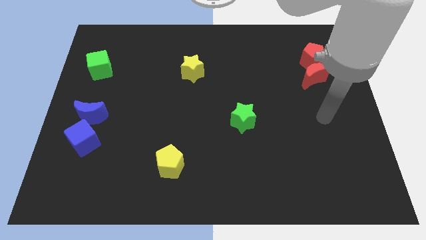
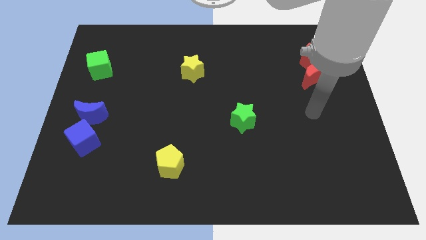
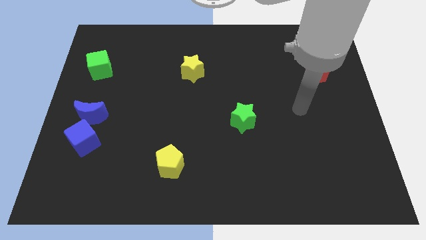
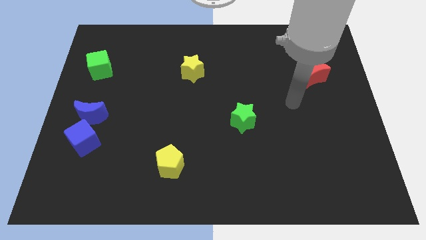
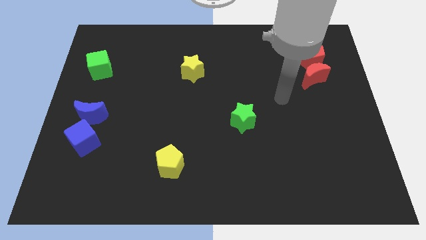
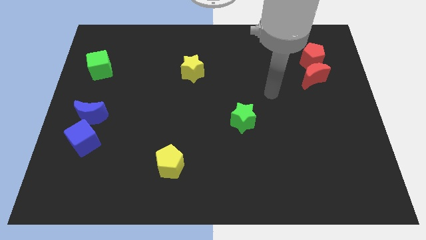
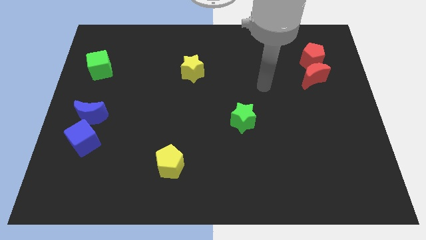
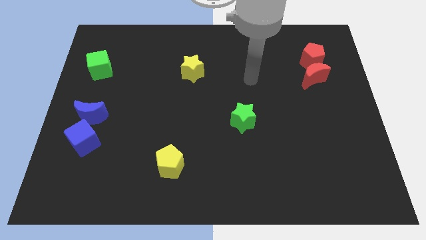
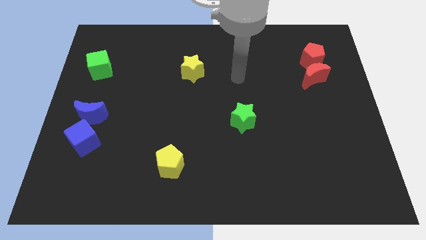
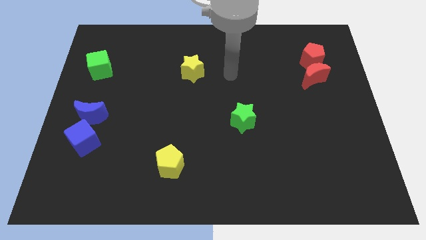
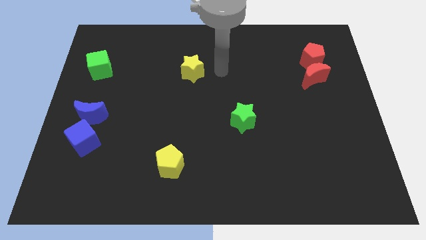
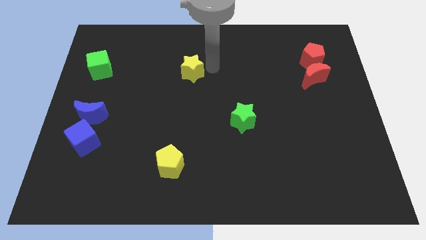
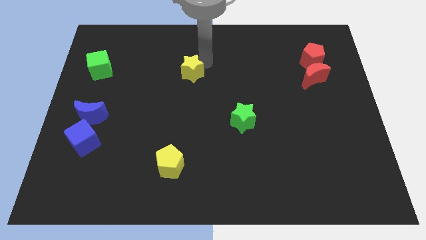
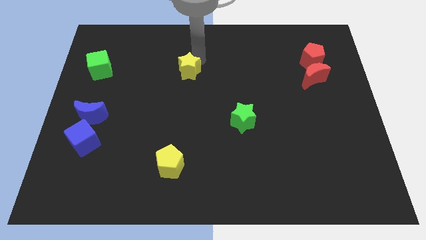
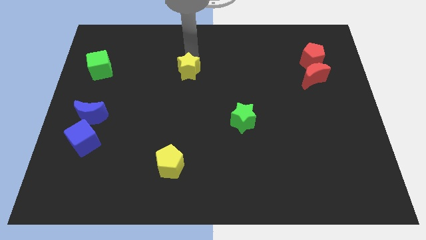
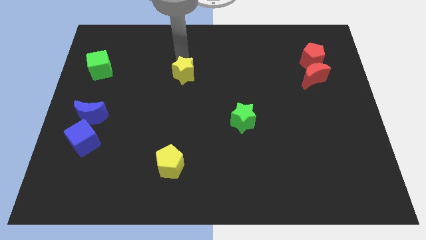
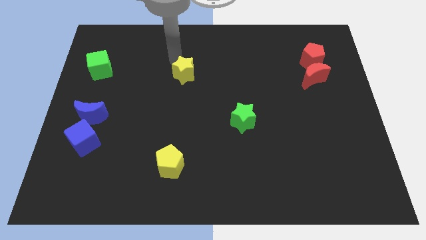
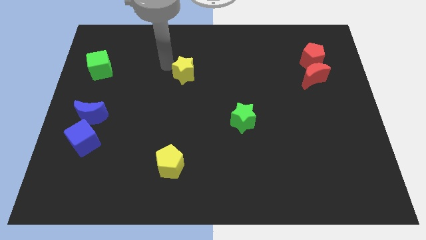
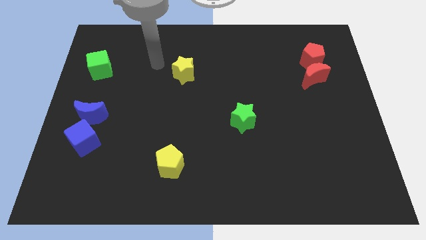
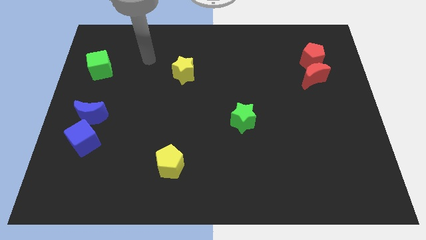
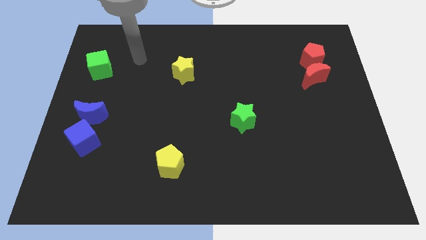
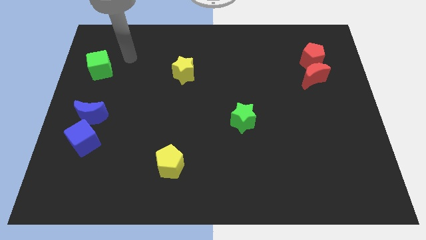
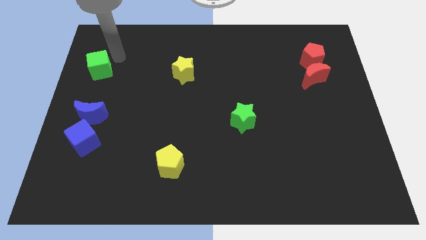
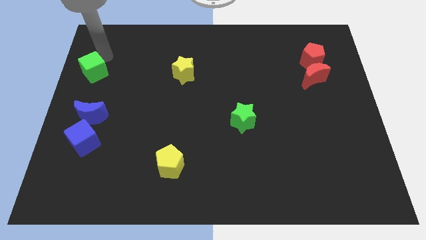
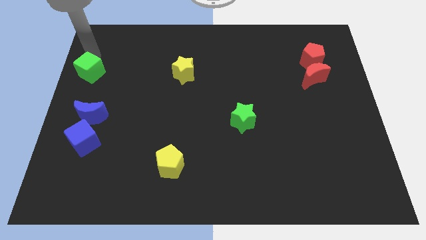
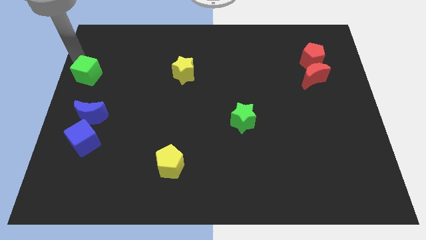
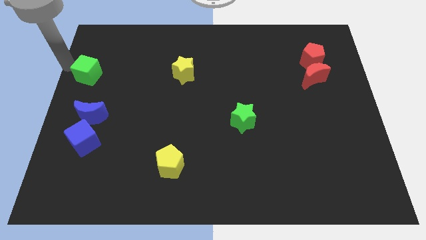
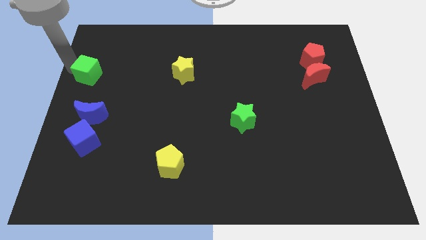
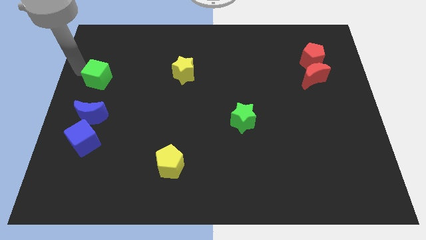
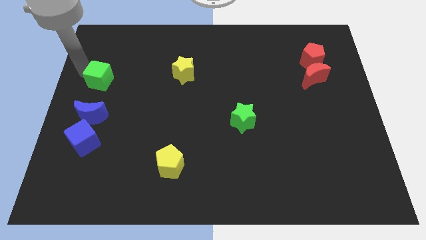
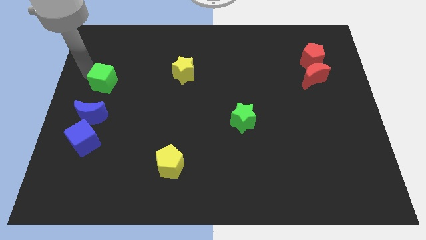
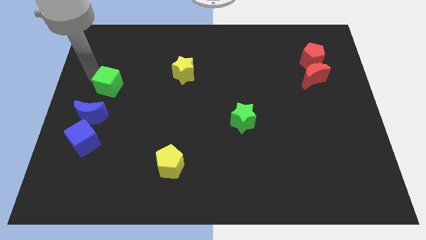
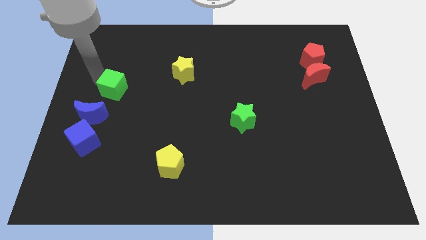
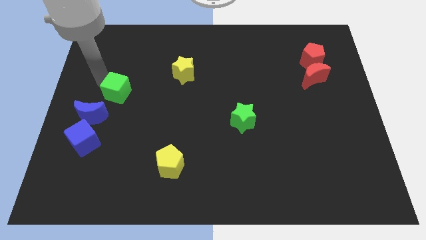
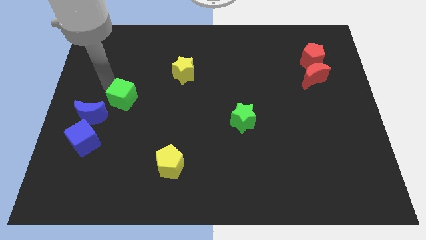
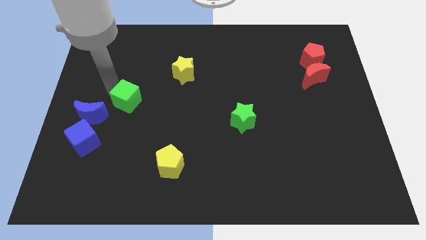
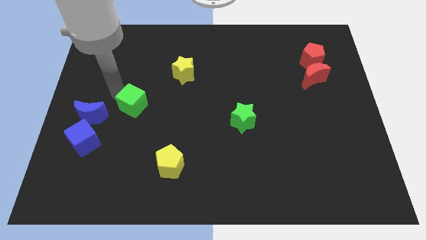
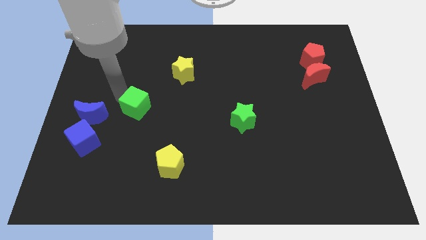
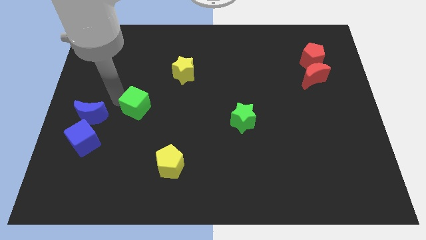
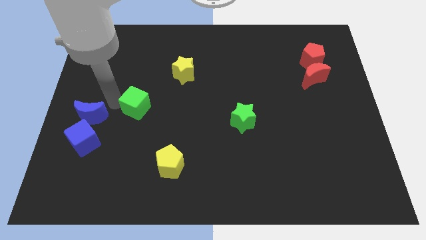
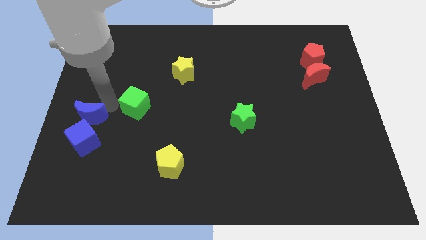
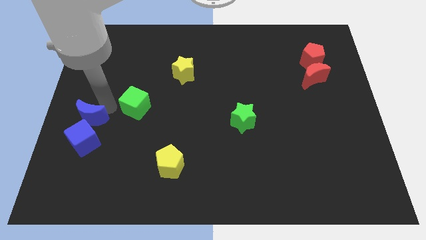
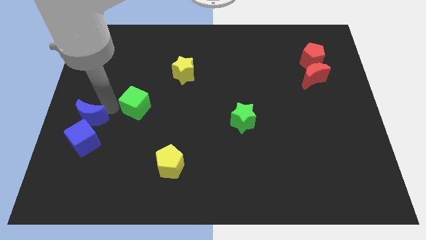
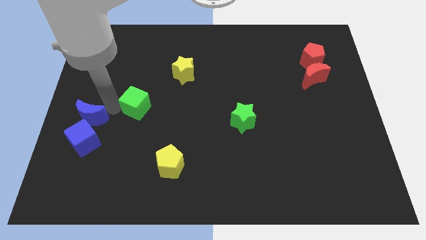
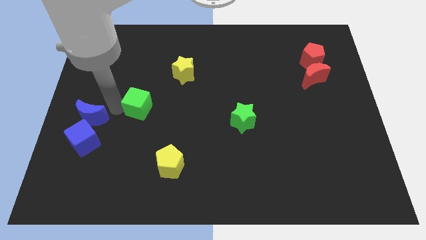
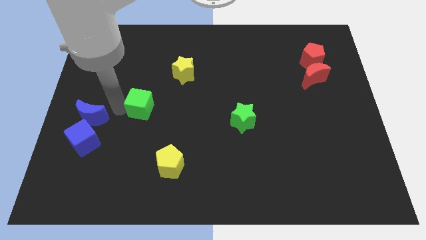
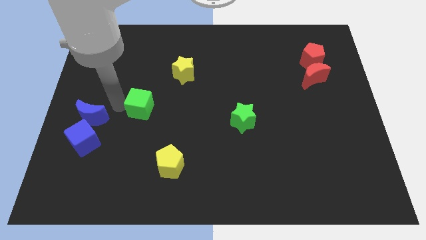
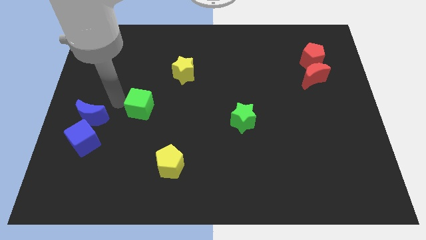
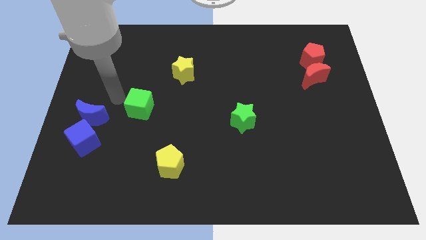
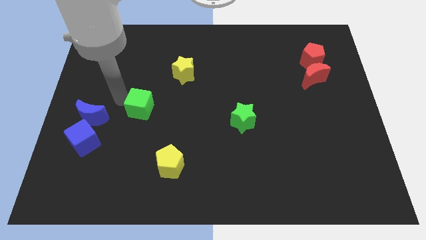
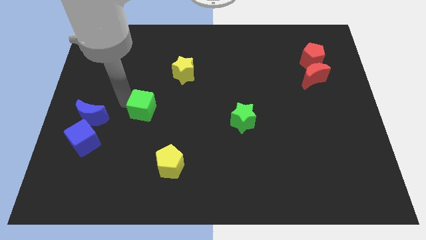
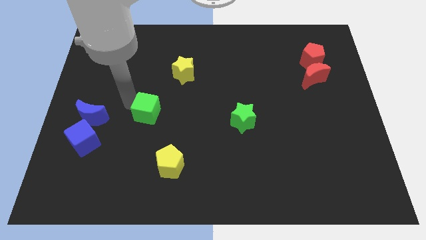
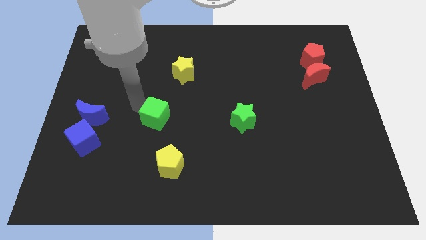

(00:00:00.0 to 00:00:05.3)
slide the green cube down and right

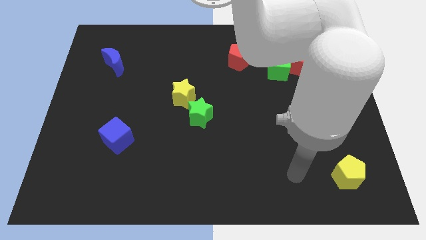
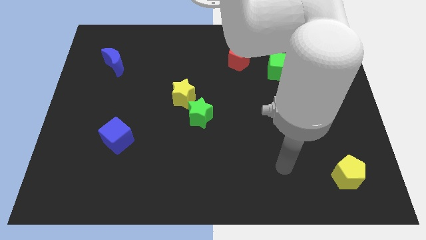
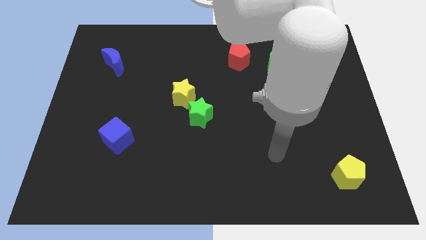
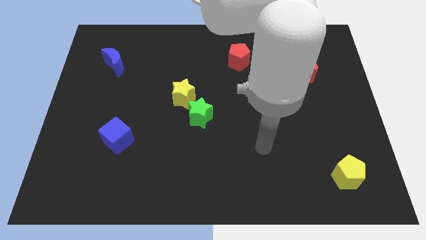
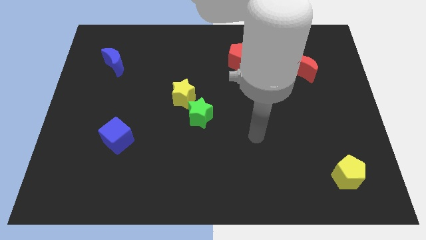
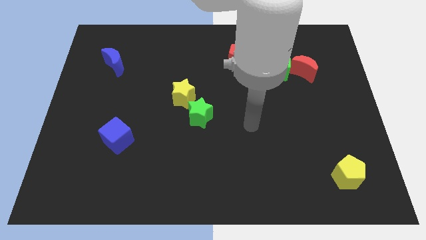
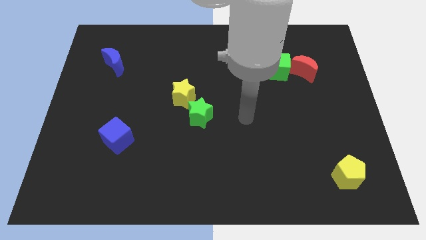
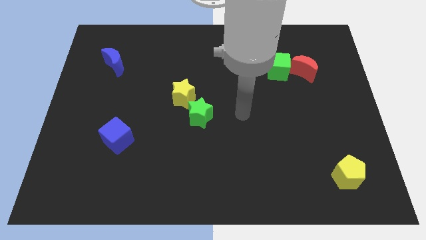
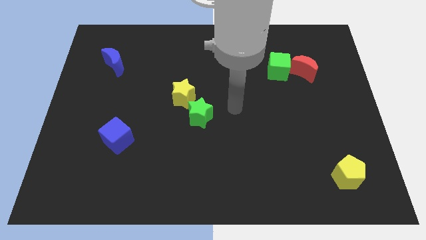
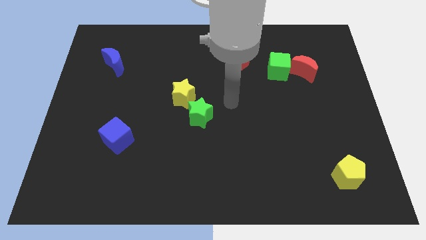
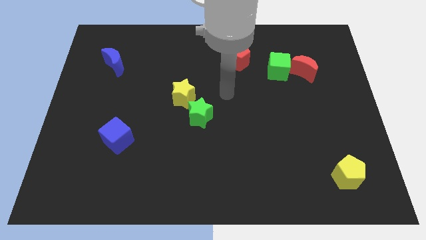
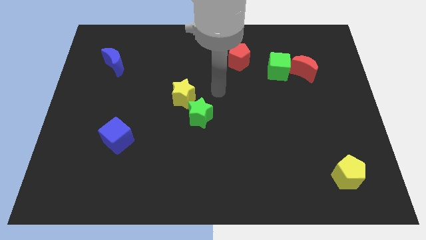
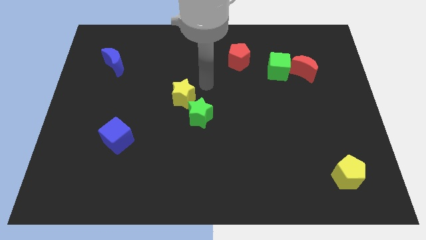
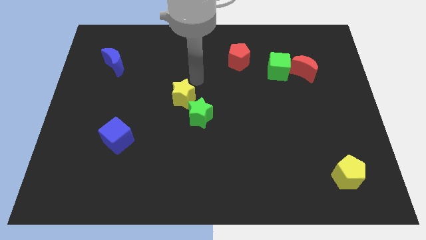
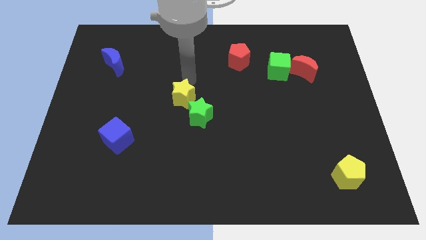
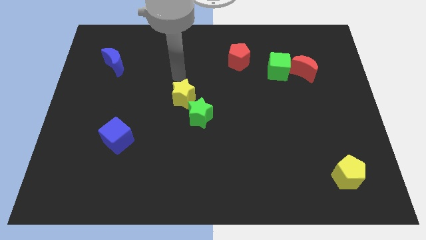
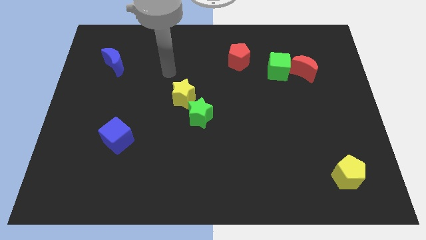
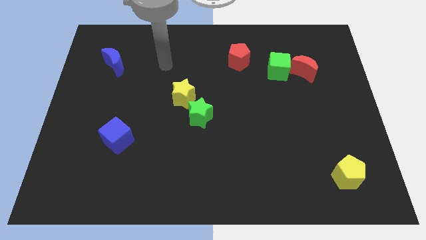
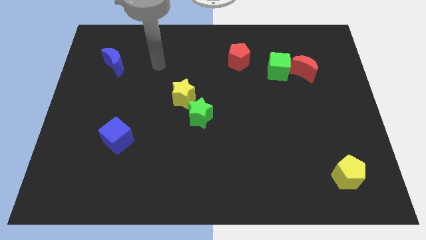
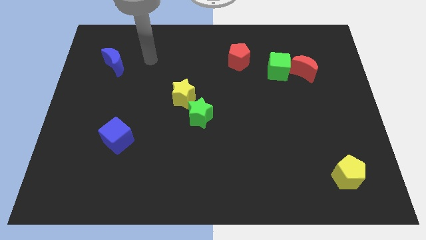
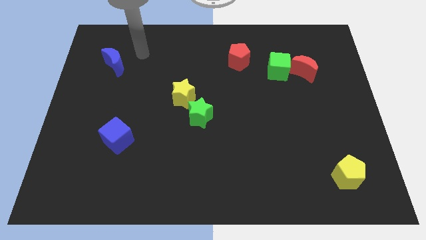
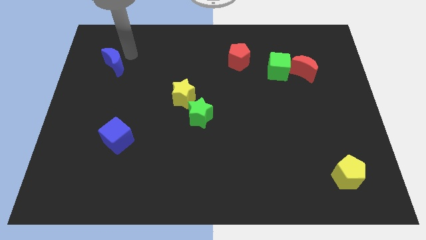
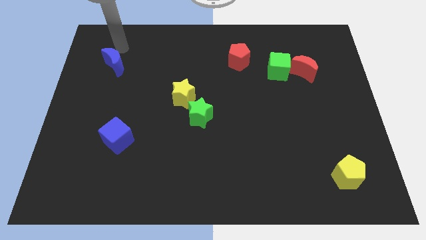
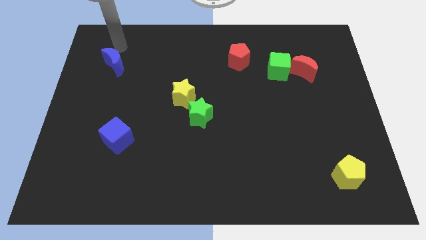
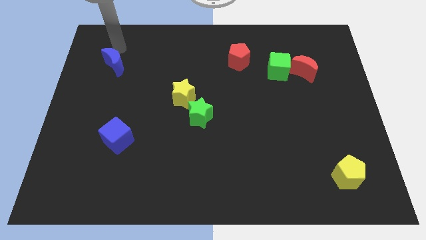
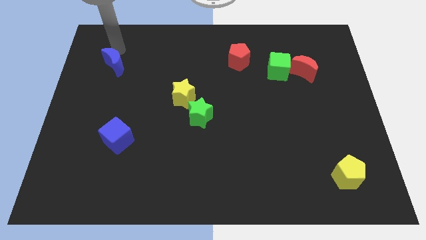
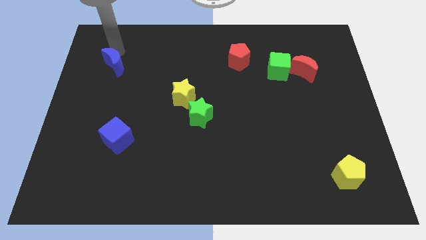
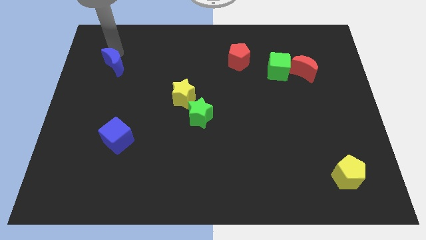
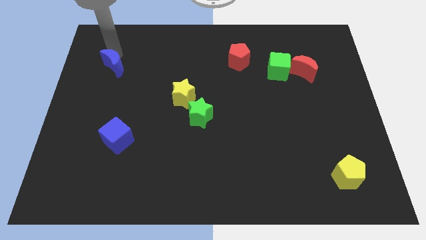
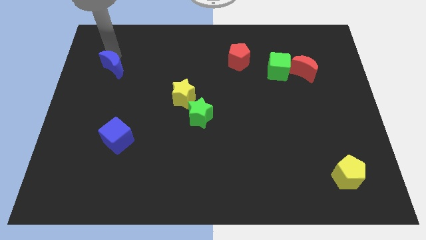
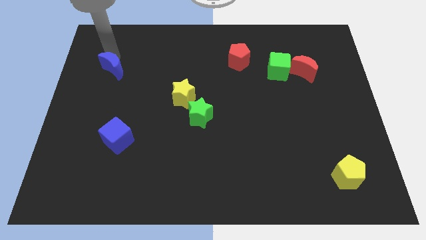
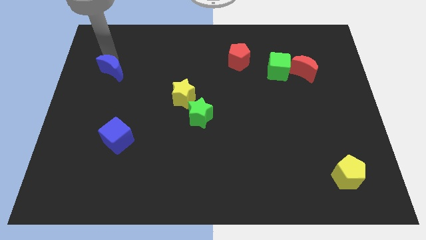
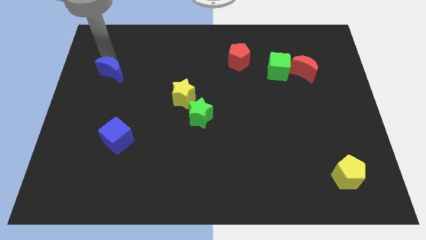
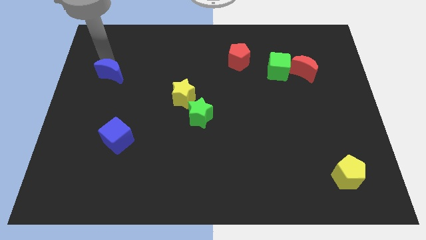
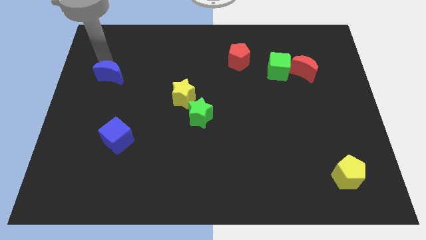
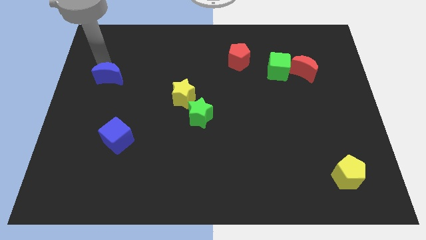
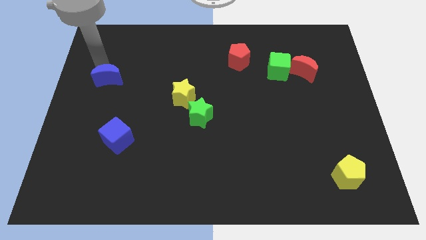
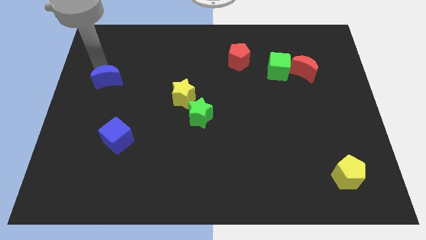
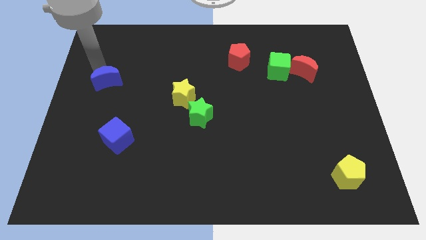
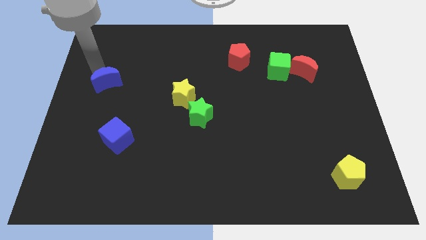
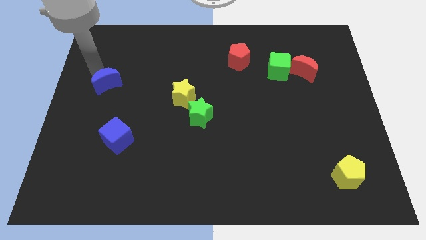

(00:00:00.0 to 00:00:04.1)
slide the blue moon a bit downwards
